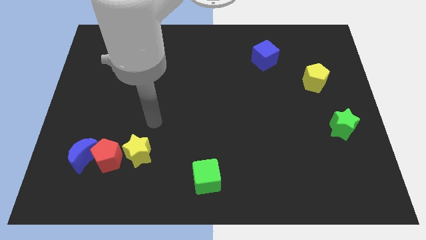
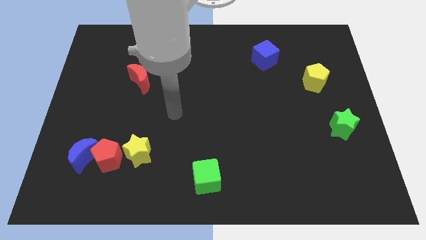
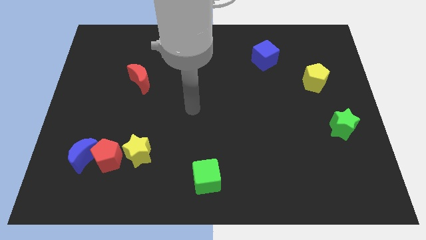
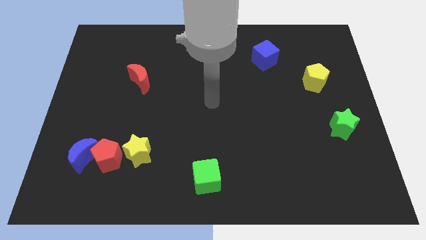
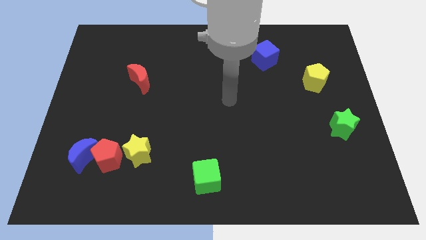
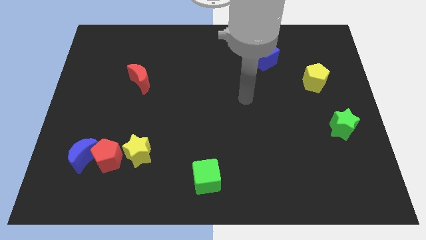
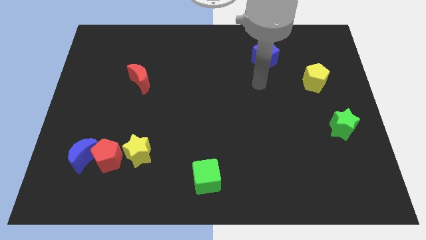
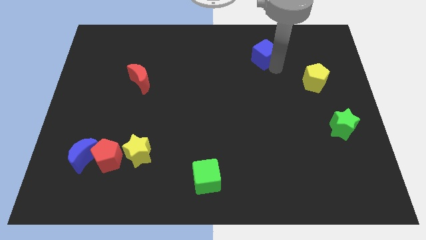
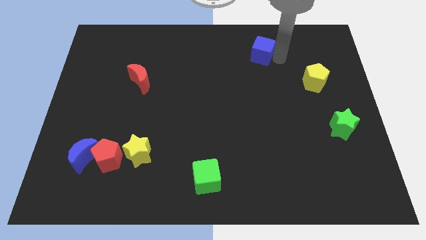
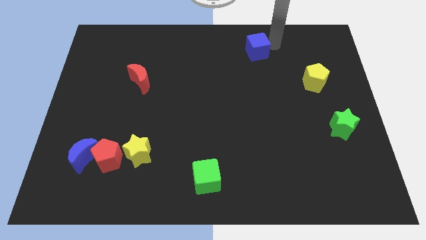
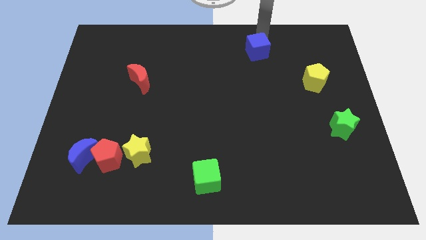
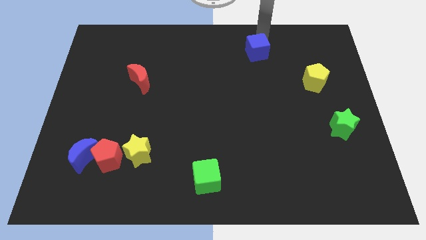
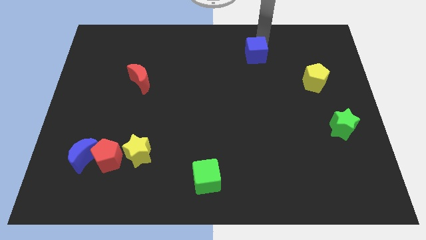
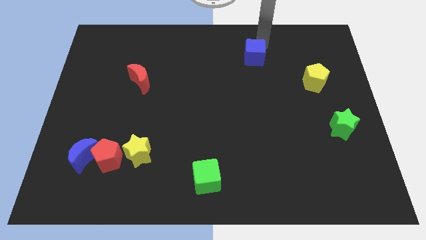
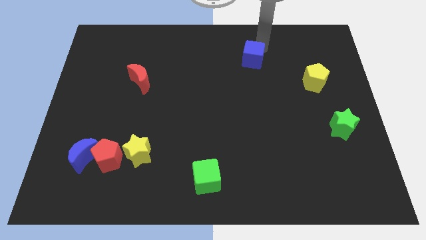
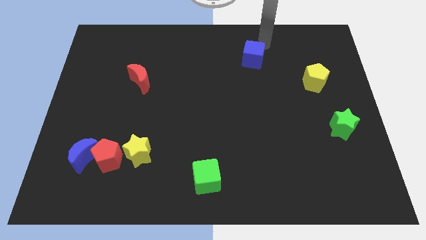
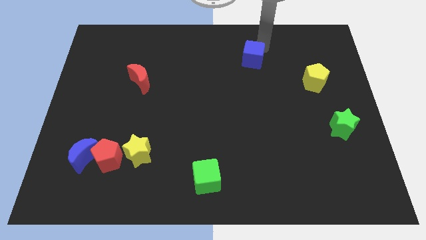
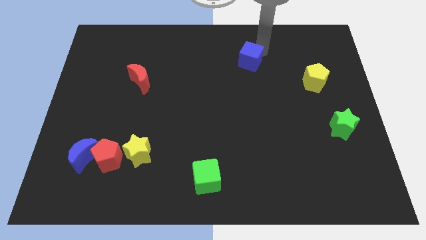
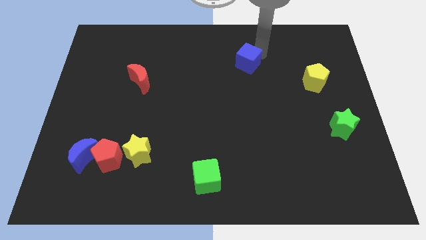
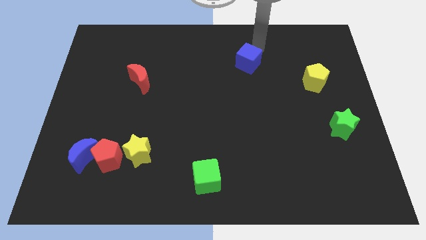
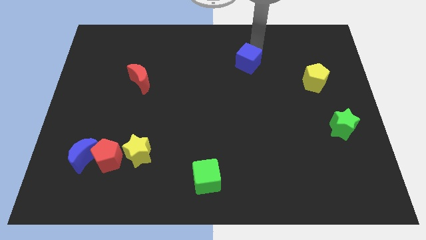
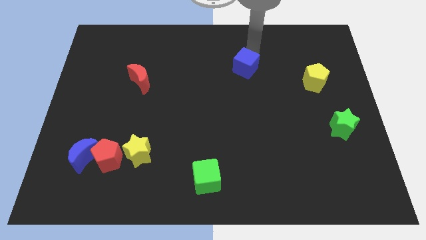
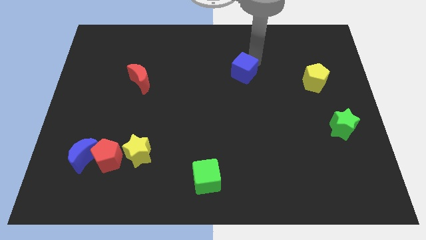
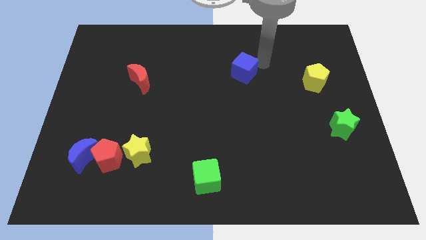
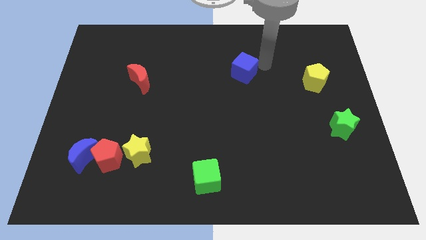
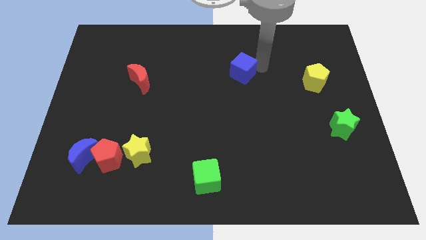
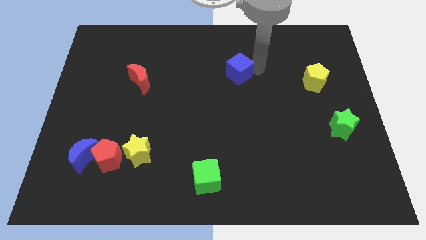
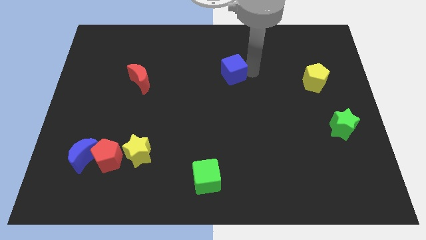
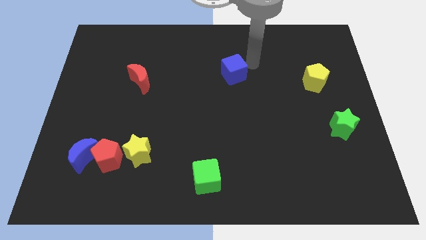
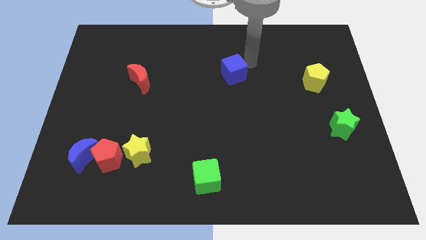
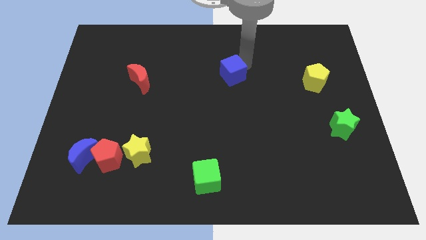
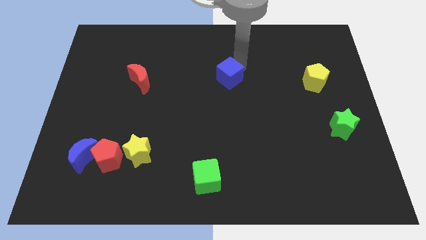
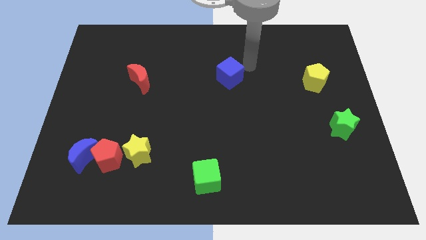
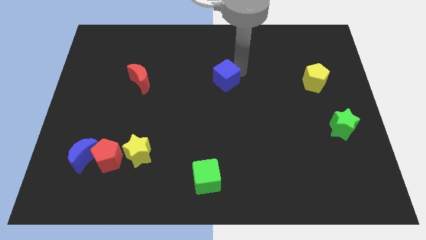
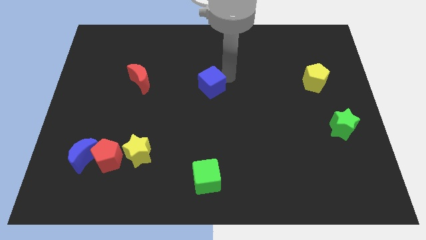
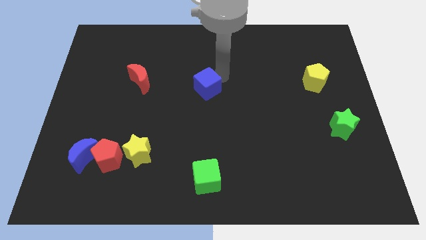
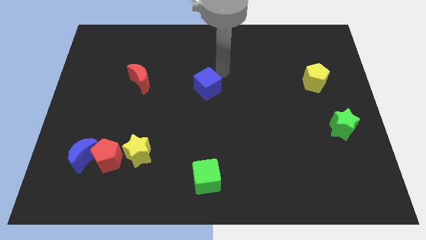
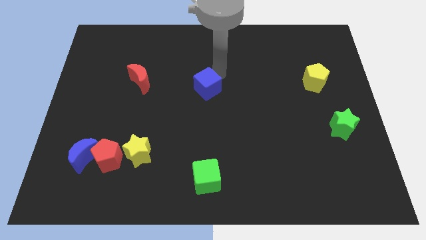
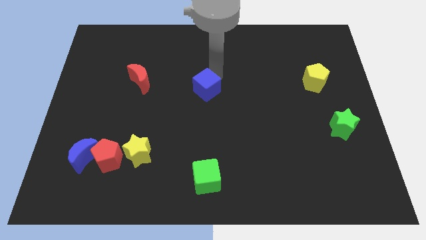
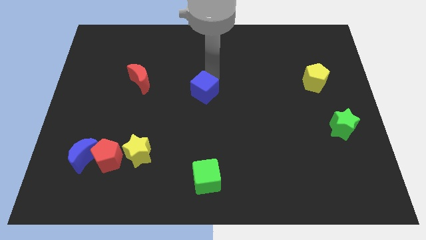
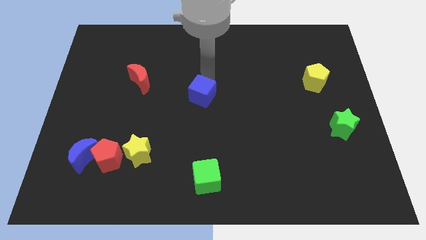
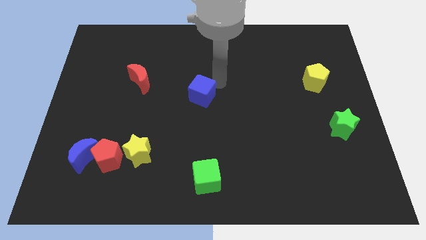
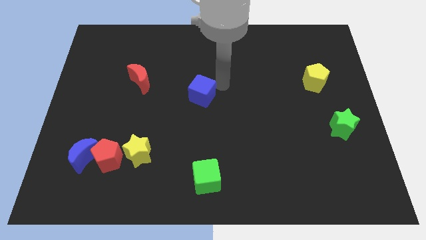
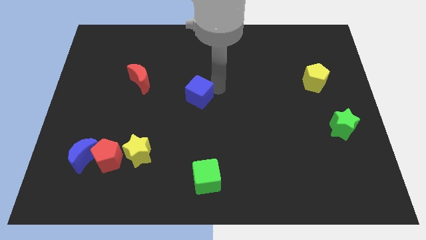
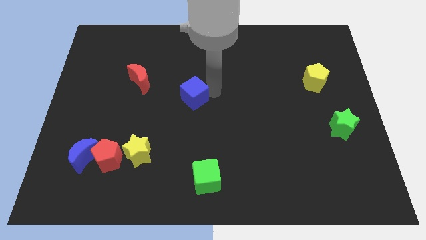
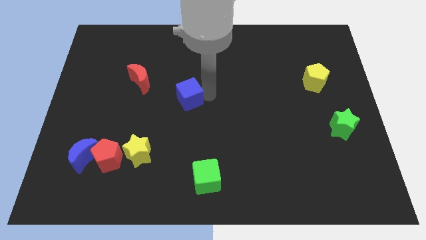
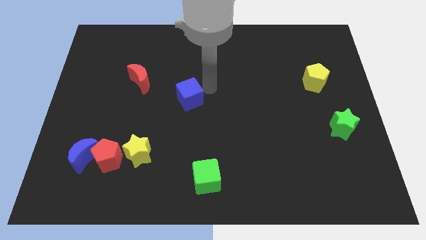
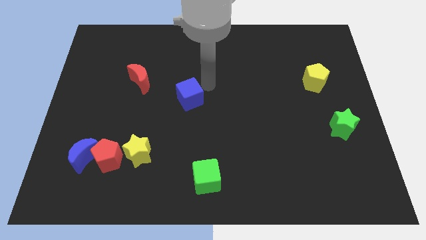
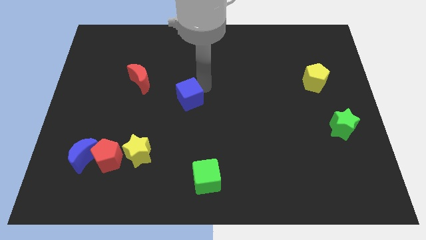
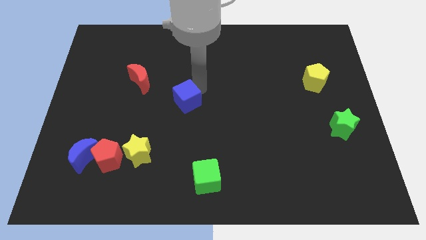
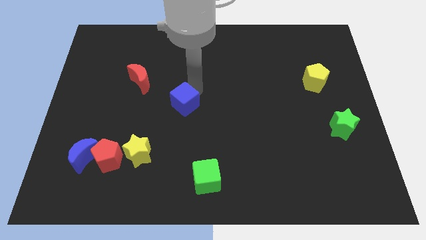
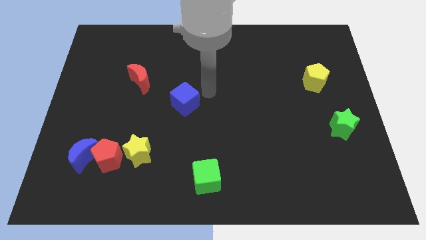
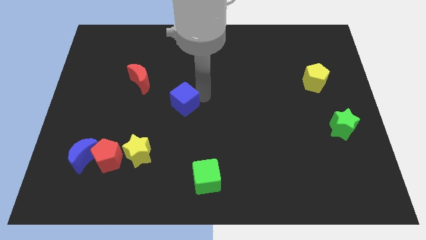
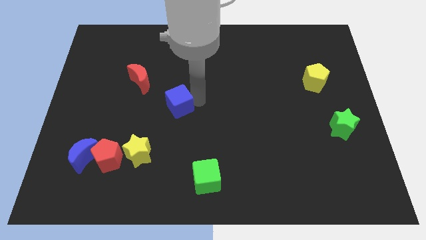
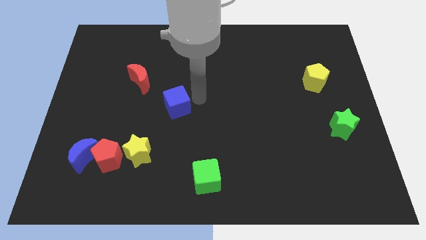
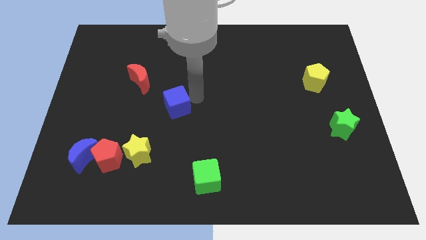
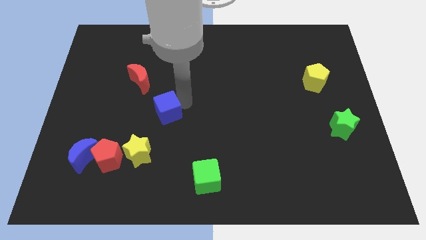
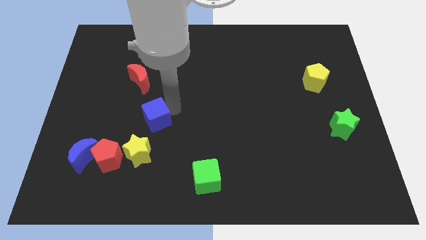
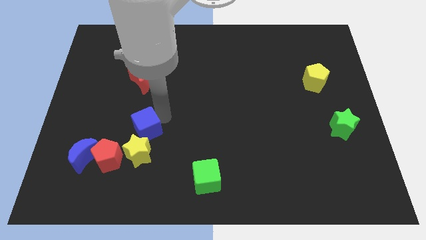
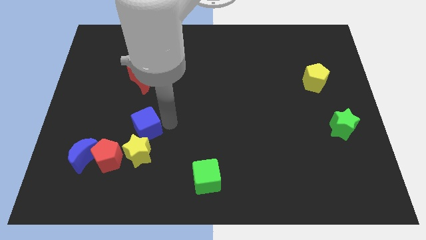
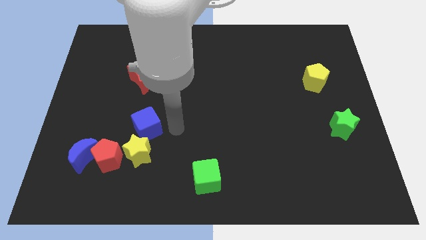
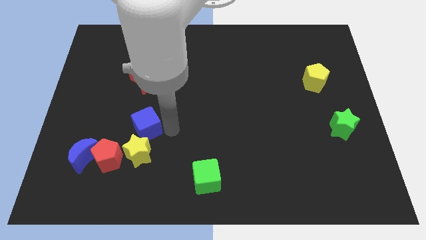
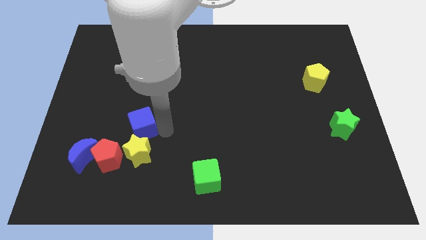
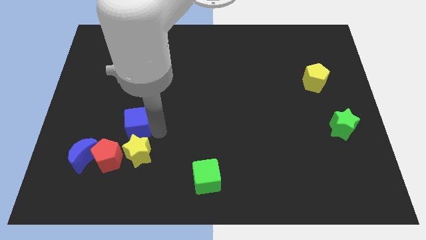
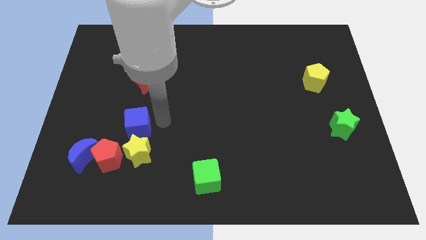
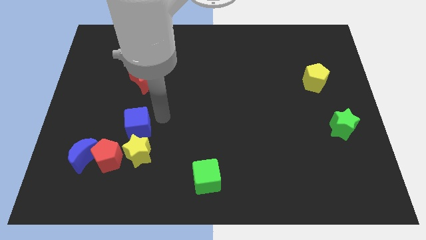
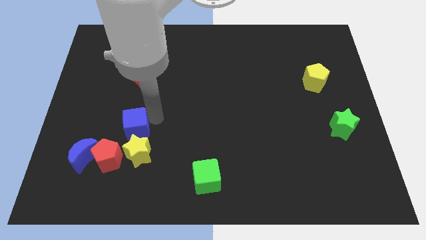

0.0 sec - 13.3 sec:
push the blue cube to the top right side of the blue moon

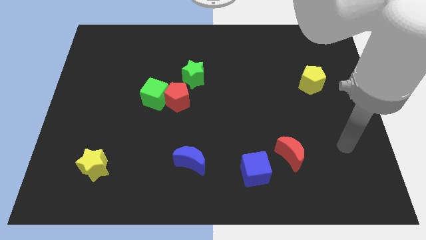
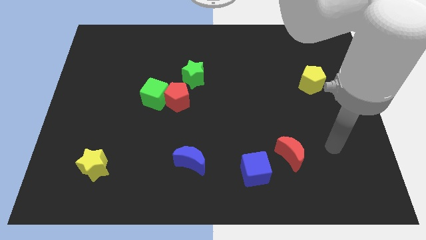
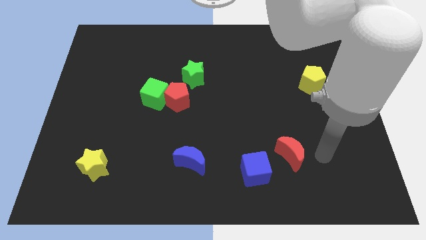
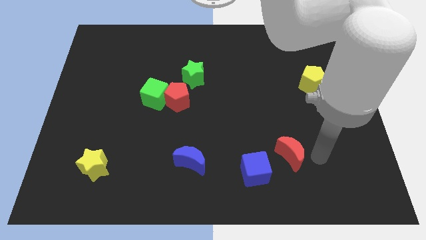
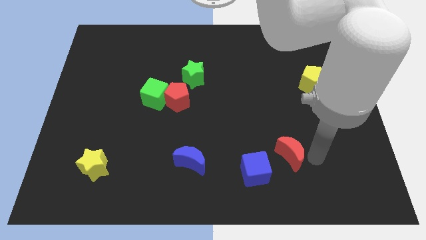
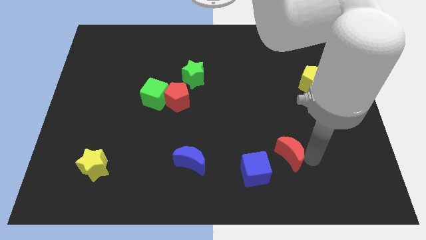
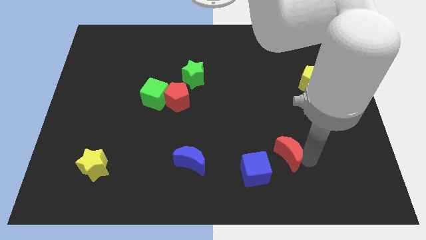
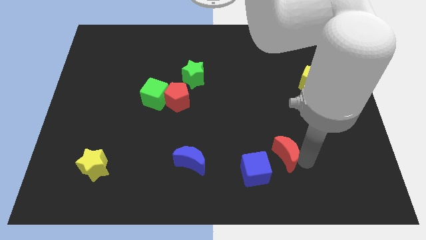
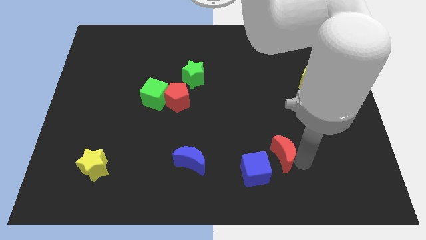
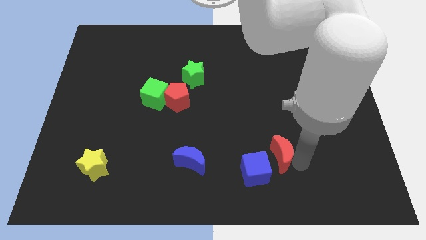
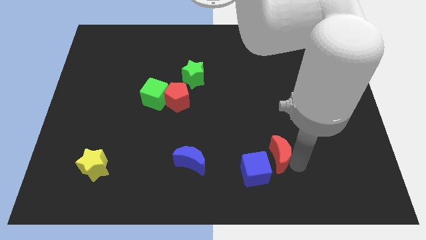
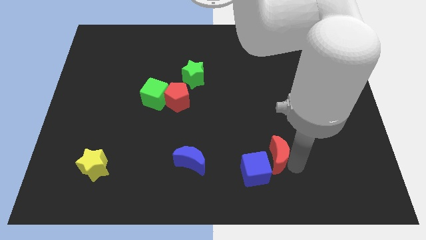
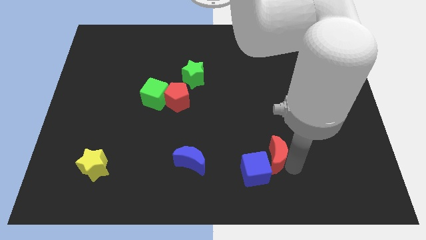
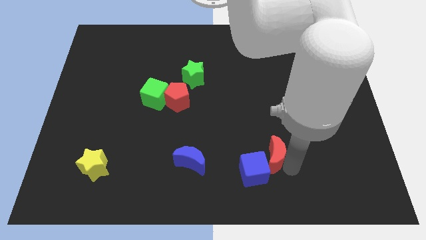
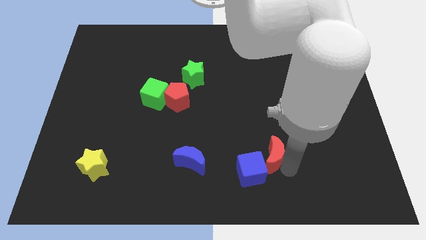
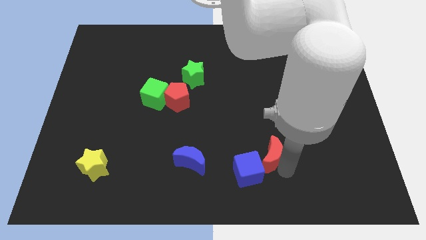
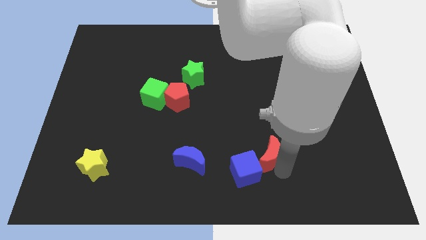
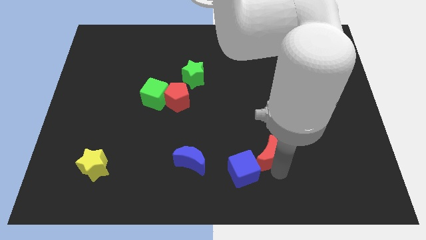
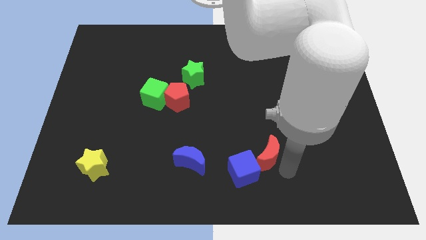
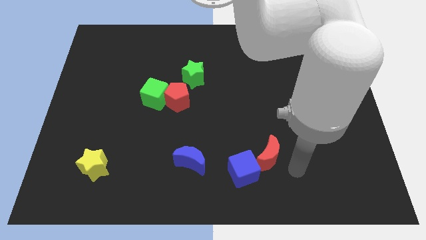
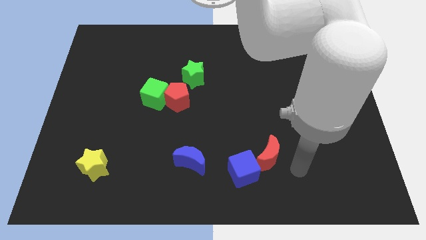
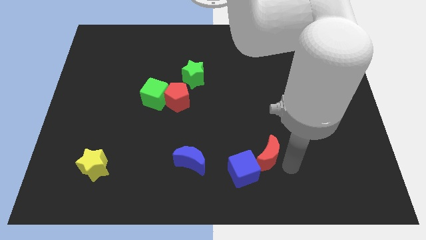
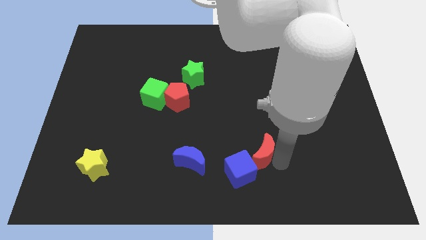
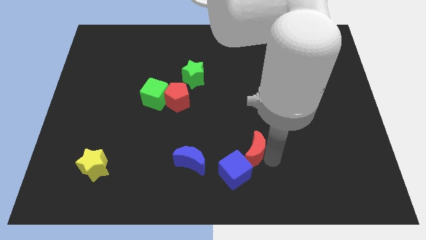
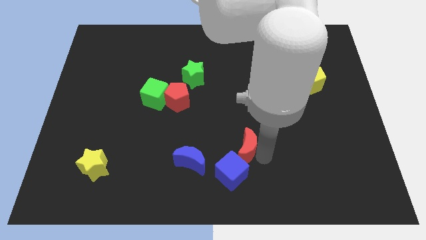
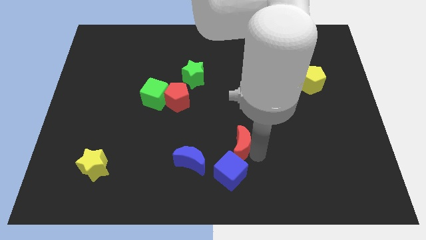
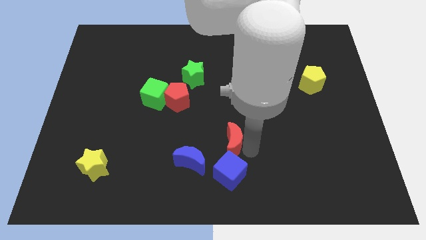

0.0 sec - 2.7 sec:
slide the red moon to the top right of the blue moon
